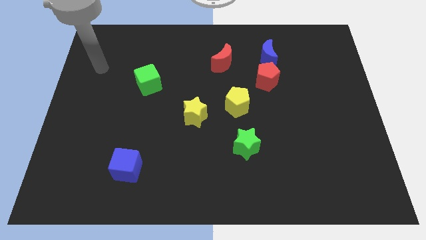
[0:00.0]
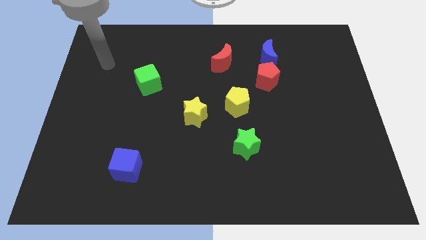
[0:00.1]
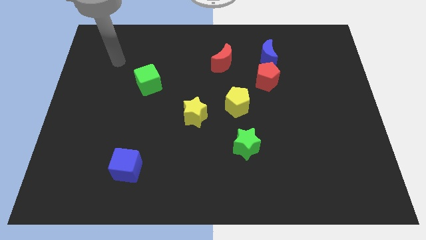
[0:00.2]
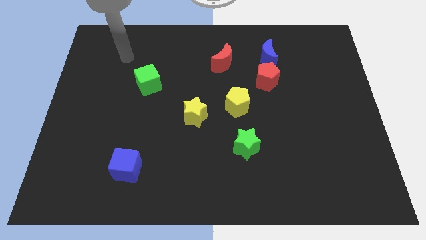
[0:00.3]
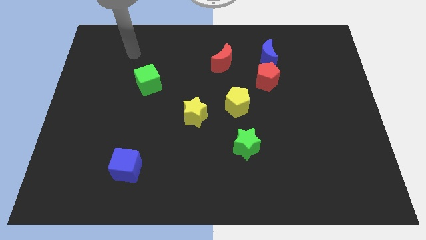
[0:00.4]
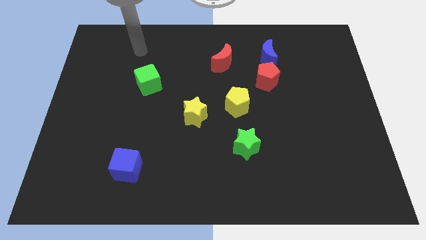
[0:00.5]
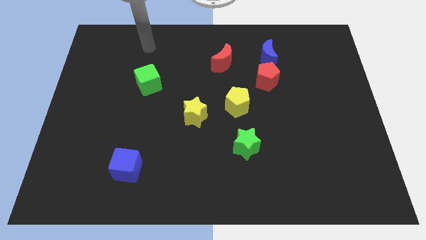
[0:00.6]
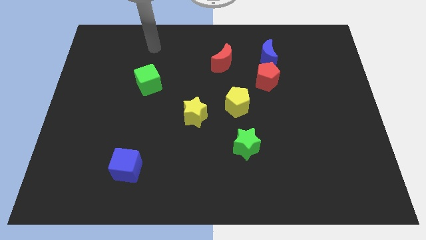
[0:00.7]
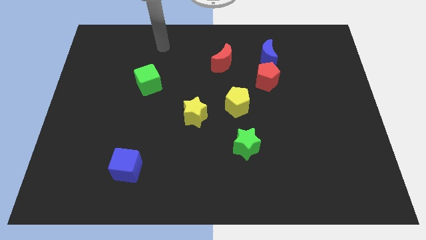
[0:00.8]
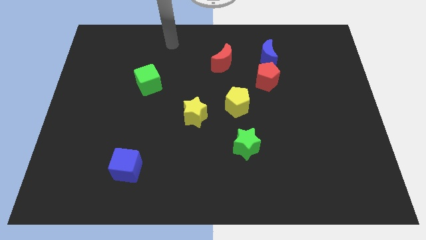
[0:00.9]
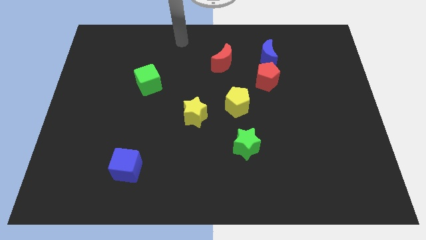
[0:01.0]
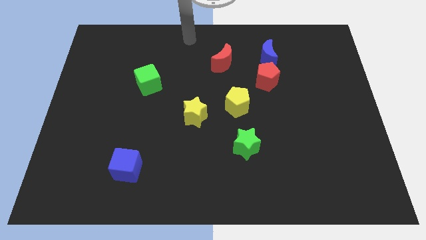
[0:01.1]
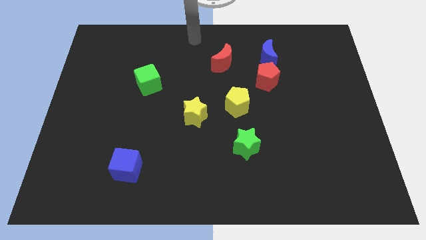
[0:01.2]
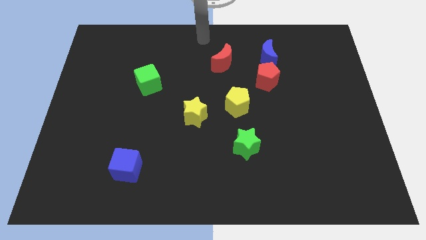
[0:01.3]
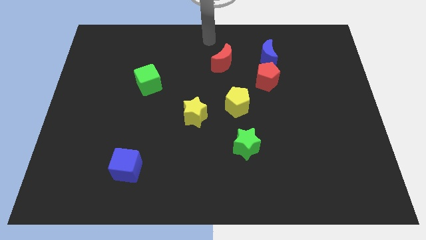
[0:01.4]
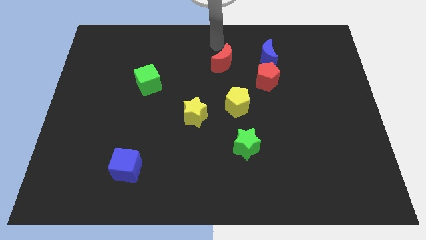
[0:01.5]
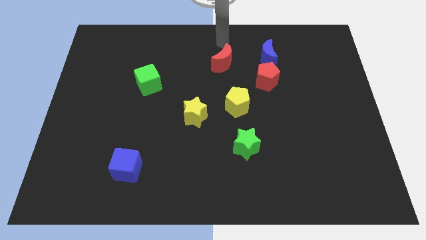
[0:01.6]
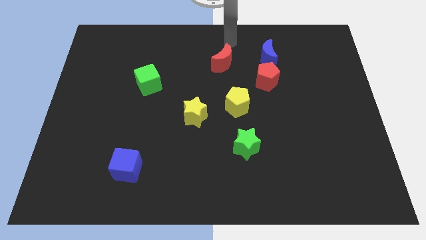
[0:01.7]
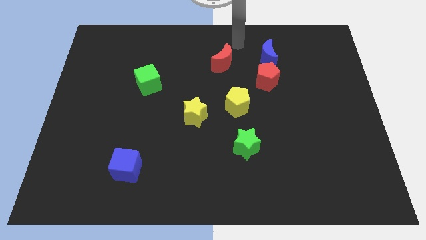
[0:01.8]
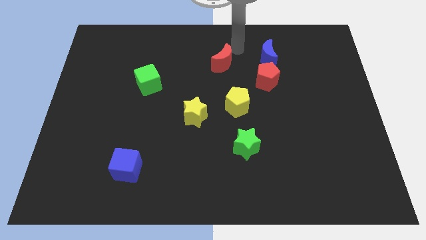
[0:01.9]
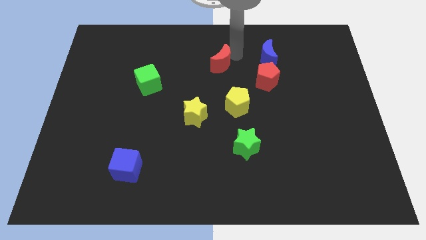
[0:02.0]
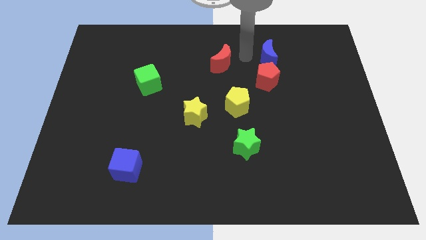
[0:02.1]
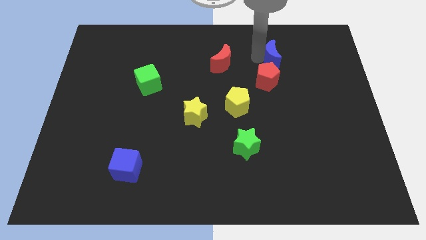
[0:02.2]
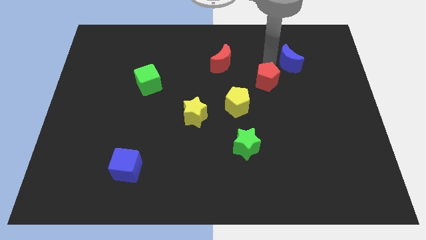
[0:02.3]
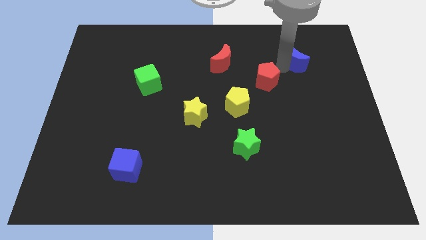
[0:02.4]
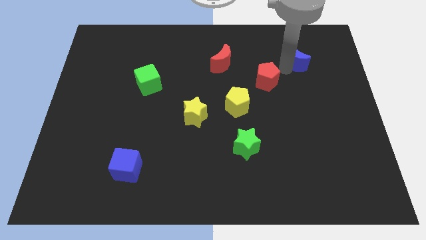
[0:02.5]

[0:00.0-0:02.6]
move the red pentagon away from the blue moon

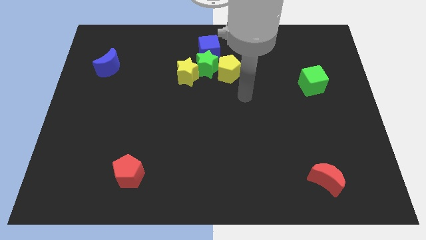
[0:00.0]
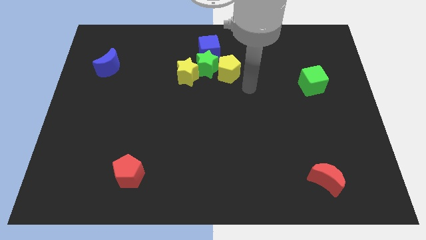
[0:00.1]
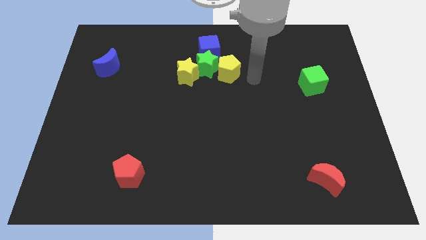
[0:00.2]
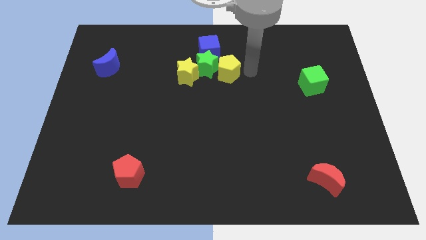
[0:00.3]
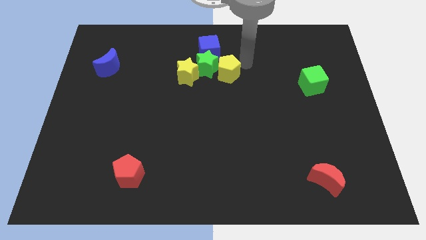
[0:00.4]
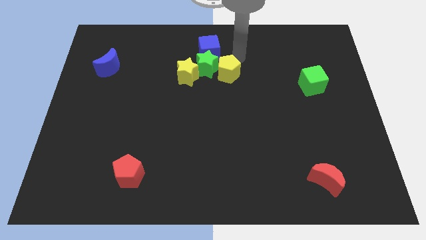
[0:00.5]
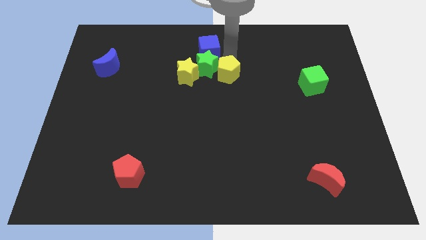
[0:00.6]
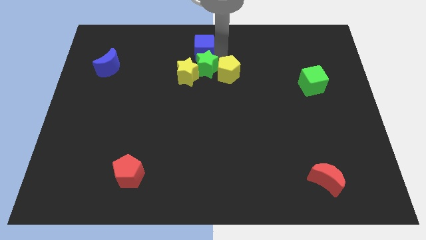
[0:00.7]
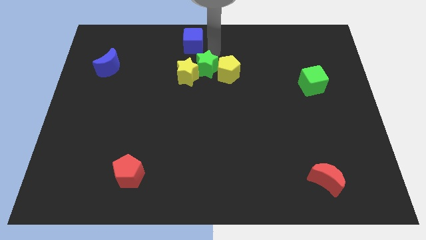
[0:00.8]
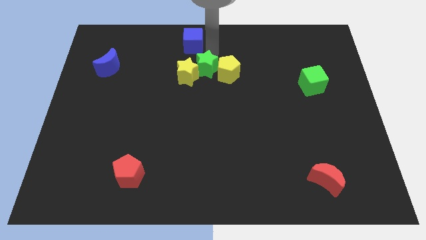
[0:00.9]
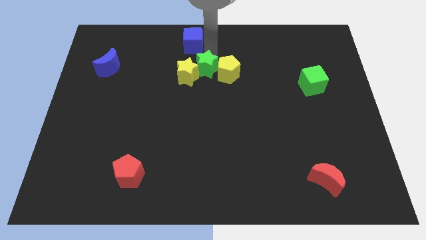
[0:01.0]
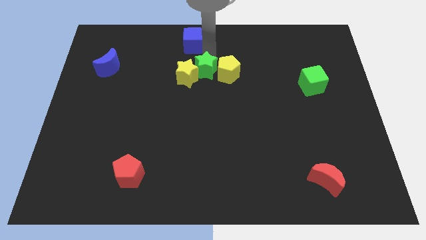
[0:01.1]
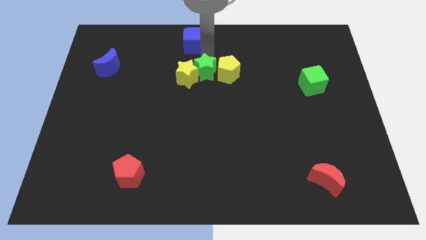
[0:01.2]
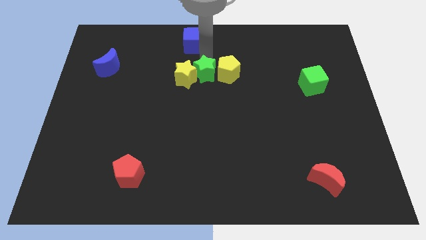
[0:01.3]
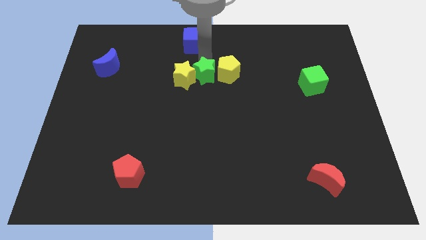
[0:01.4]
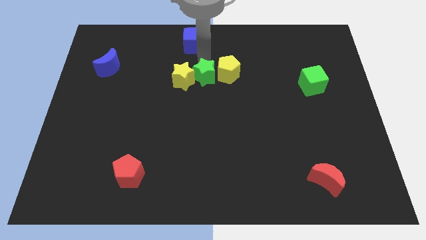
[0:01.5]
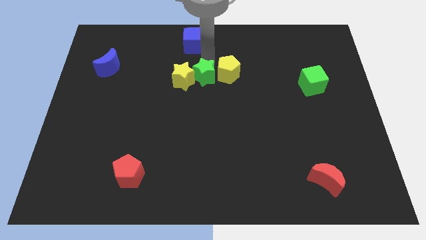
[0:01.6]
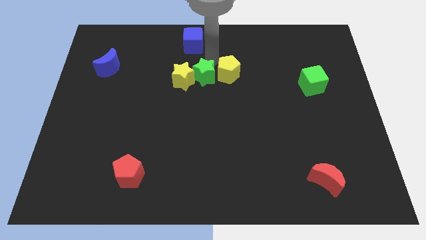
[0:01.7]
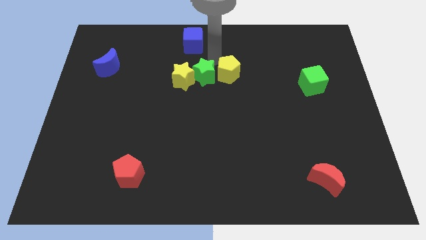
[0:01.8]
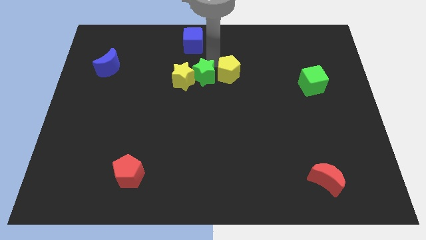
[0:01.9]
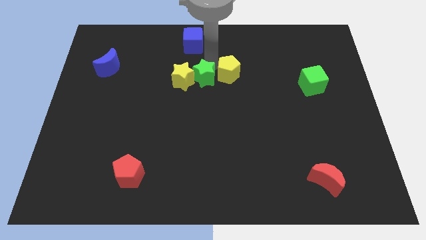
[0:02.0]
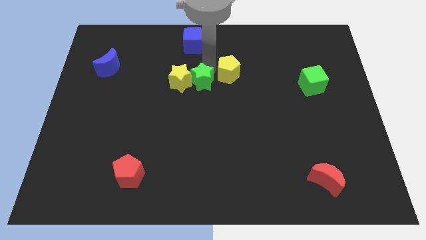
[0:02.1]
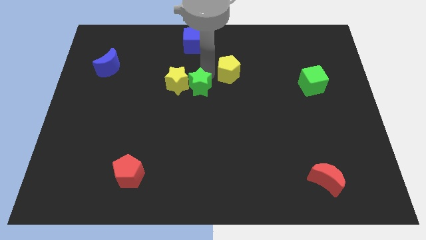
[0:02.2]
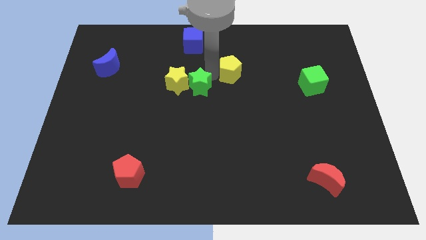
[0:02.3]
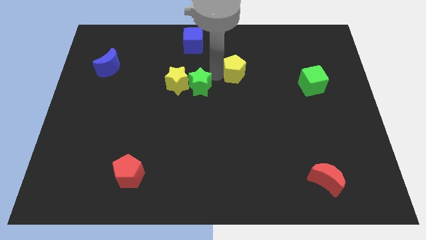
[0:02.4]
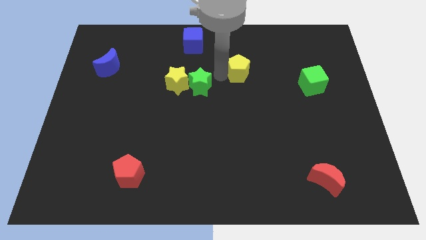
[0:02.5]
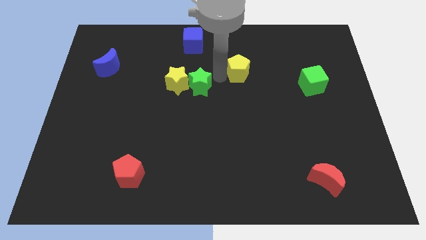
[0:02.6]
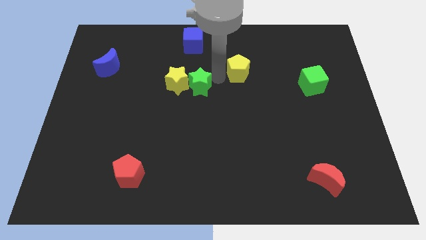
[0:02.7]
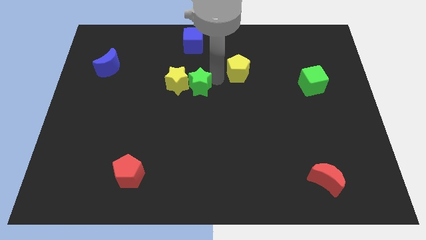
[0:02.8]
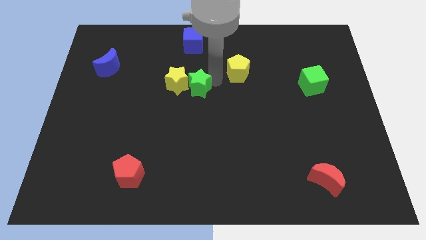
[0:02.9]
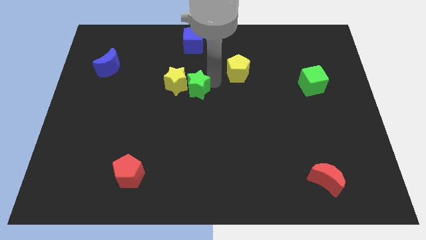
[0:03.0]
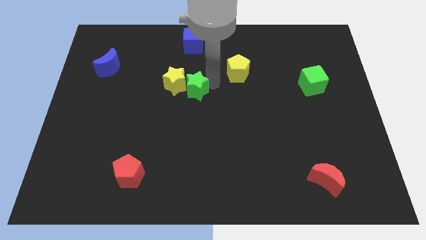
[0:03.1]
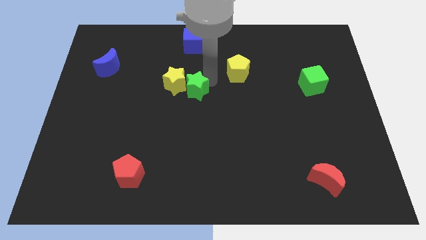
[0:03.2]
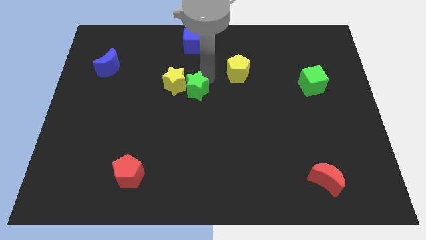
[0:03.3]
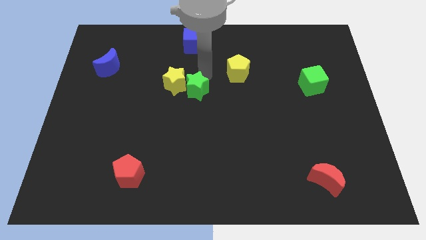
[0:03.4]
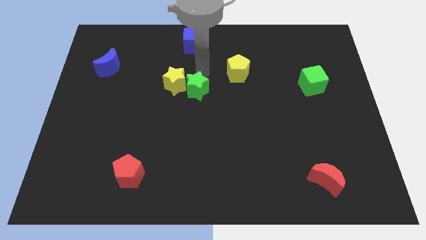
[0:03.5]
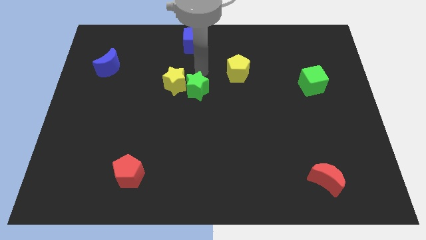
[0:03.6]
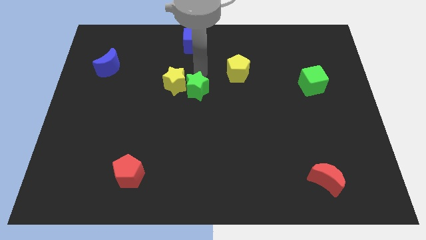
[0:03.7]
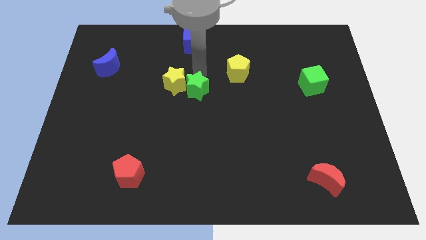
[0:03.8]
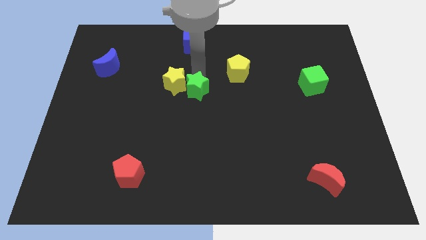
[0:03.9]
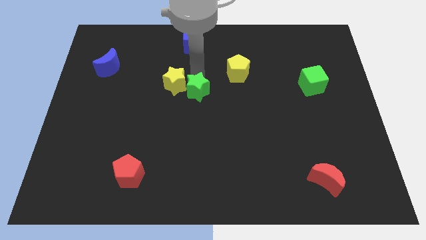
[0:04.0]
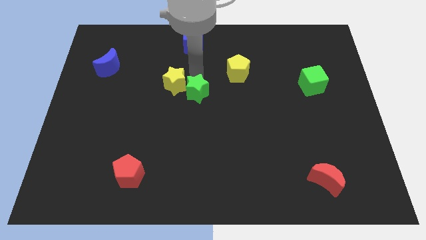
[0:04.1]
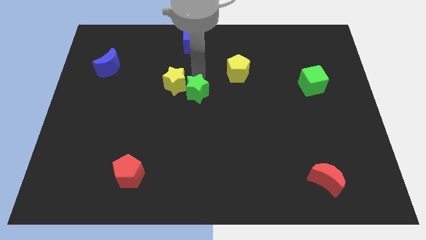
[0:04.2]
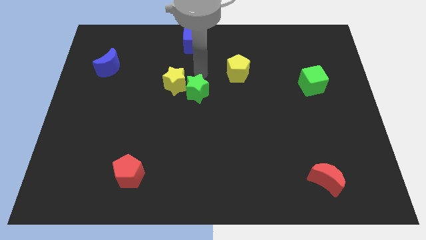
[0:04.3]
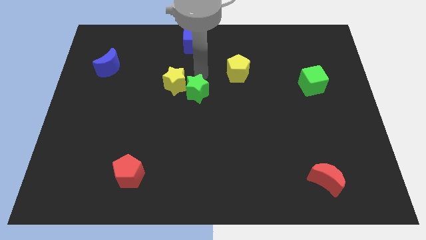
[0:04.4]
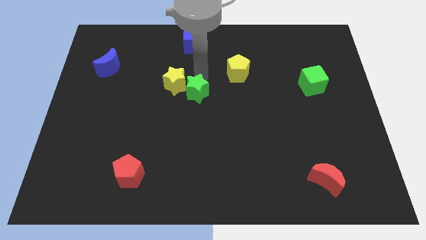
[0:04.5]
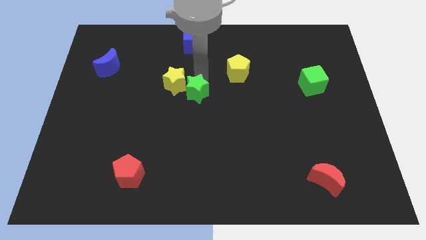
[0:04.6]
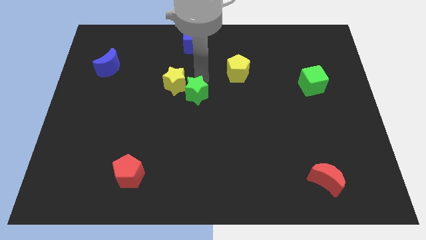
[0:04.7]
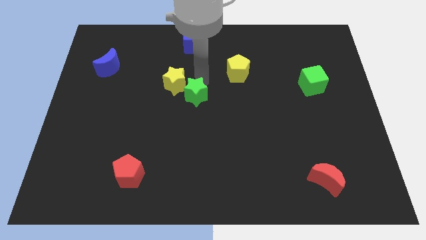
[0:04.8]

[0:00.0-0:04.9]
separate the green star from the group

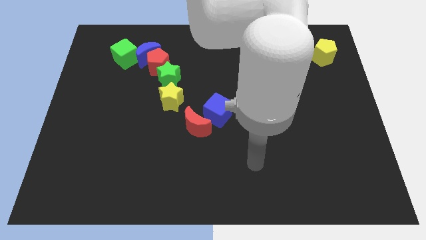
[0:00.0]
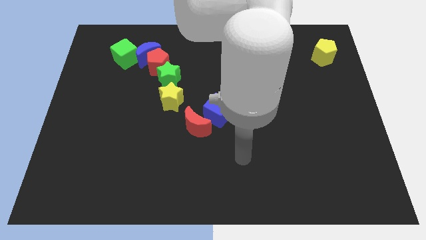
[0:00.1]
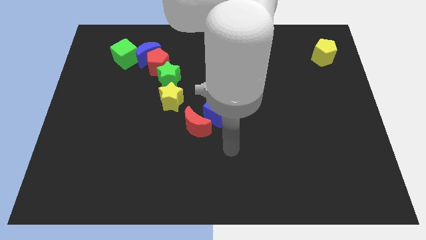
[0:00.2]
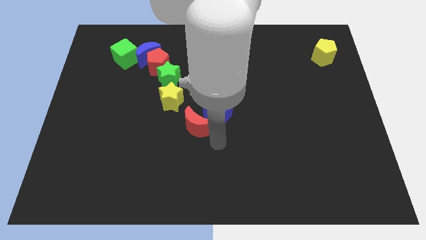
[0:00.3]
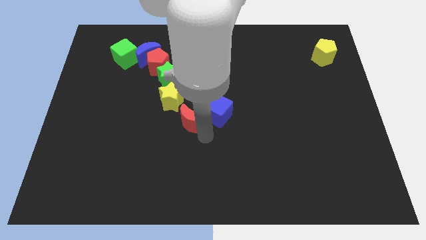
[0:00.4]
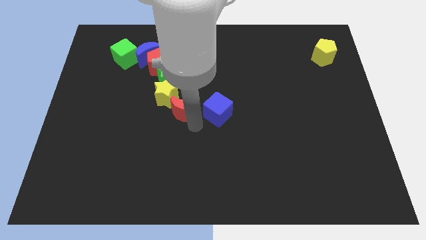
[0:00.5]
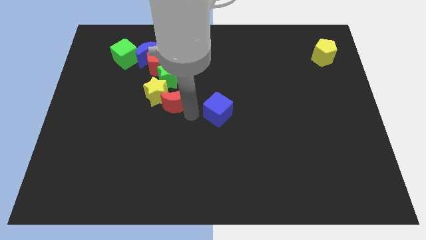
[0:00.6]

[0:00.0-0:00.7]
separate the blue cube from the red moon

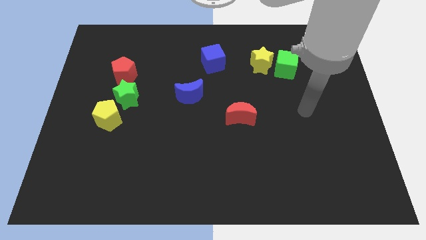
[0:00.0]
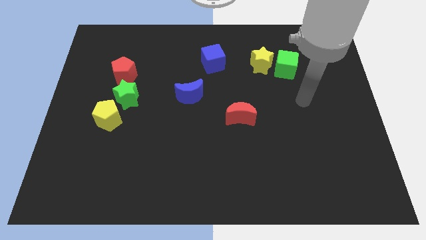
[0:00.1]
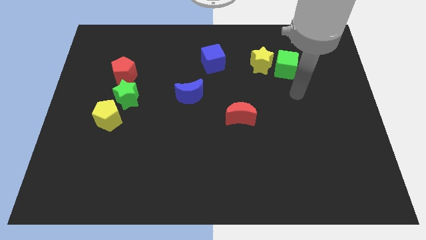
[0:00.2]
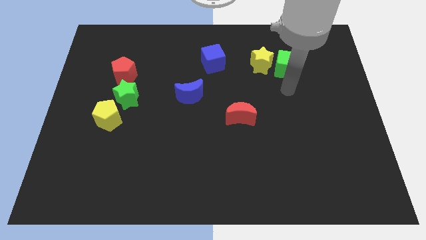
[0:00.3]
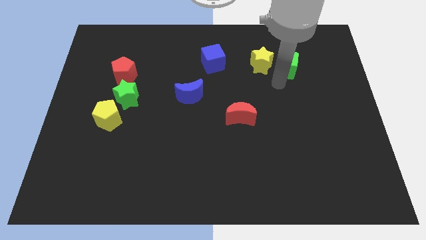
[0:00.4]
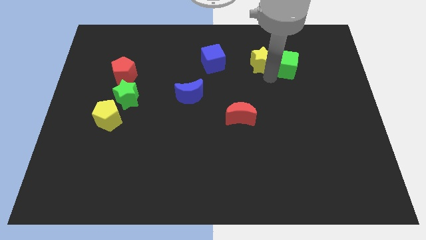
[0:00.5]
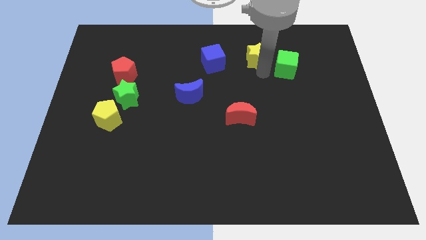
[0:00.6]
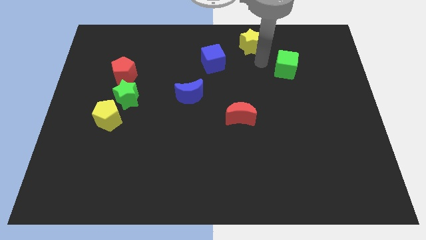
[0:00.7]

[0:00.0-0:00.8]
separate the green cube from the yellow star

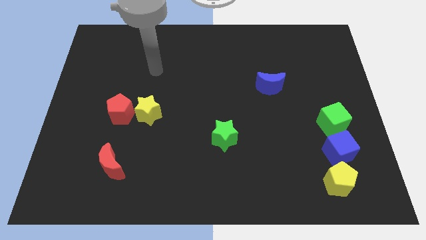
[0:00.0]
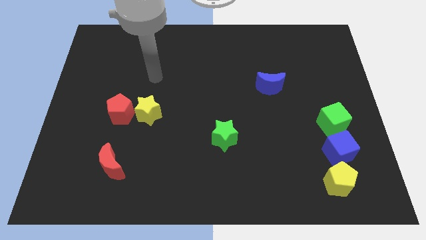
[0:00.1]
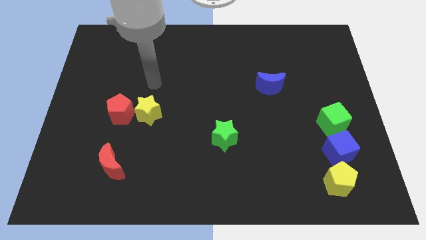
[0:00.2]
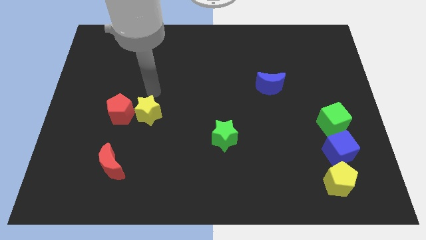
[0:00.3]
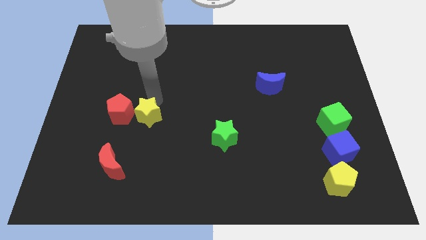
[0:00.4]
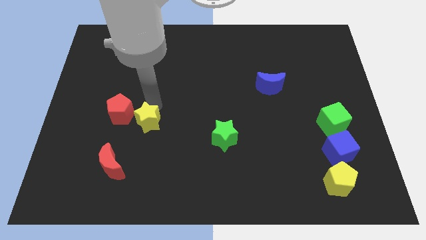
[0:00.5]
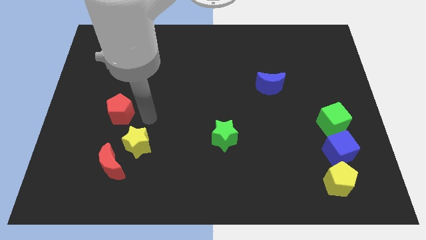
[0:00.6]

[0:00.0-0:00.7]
pull the red pentagon apart from the yellow star
